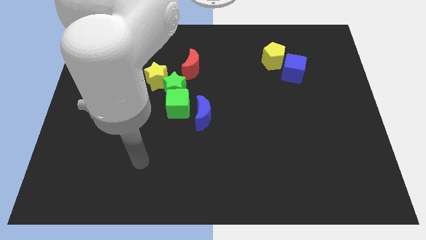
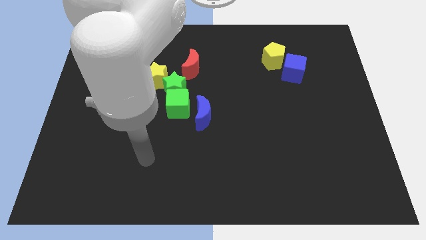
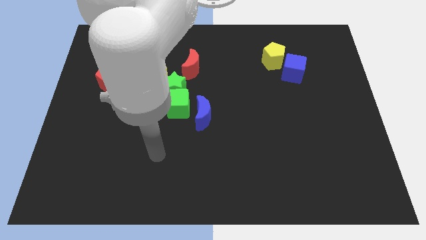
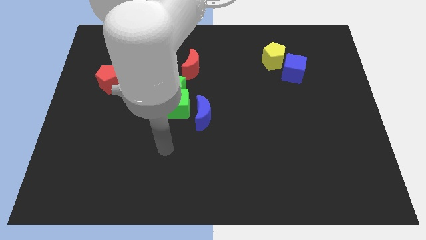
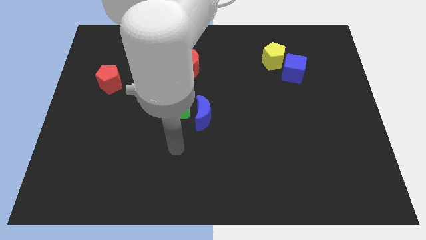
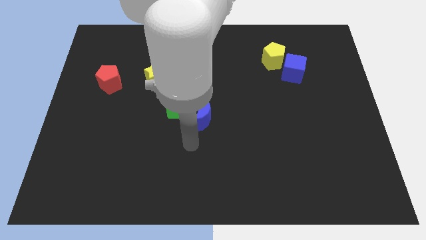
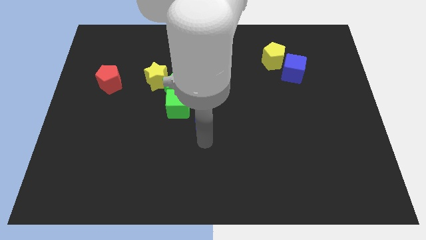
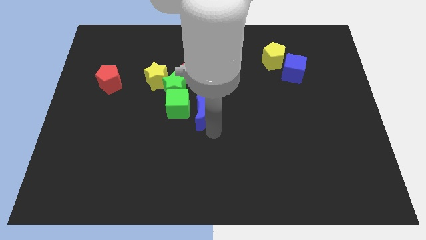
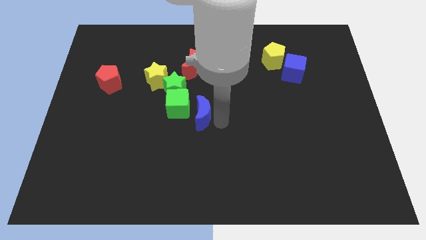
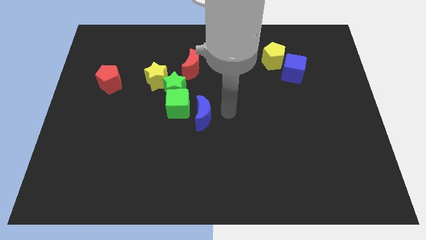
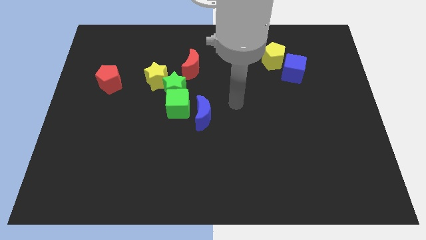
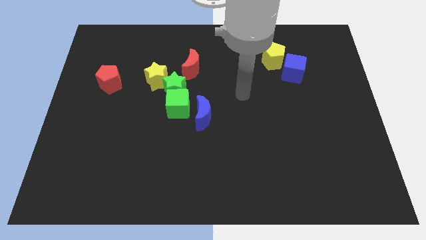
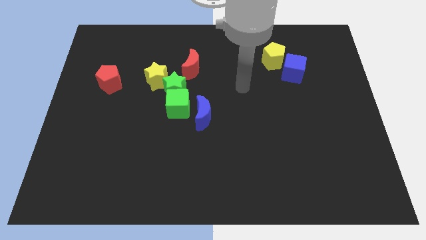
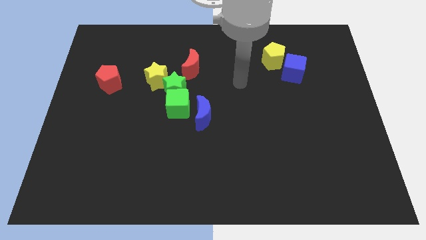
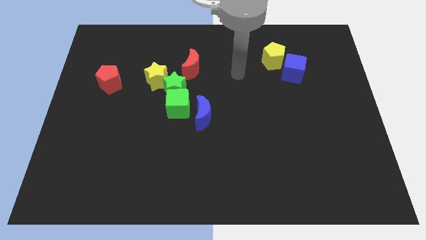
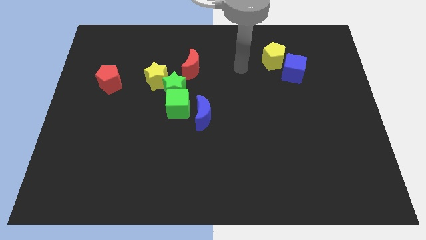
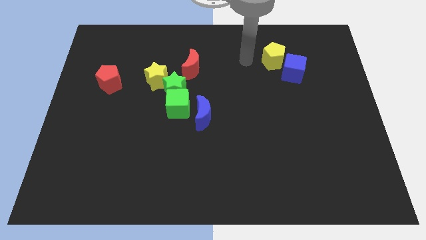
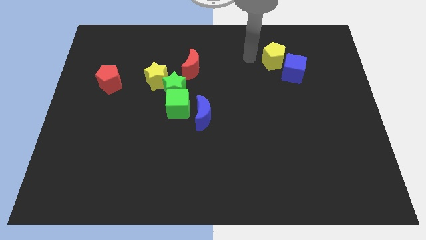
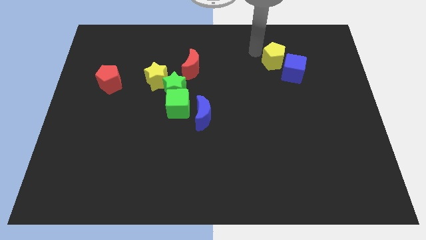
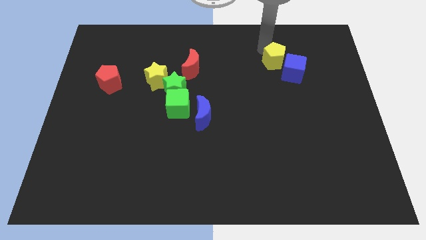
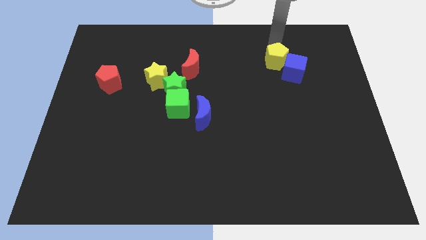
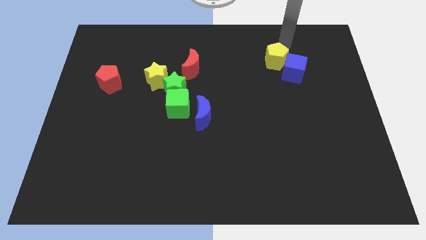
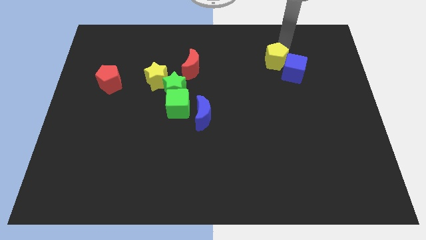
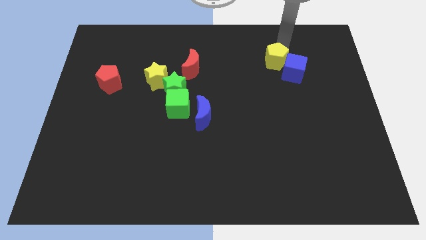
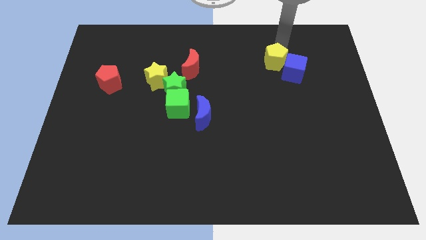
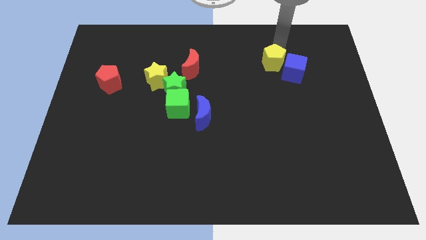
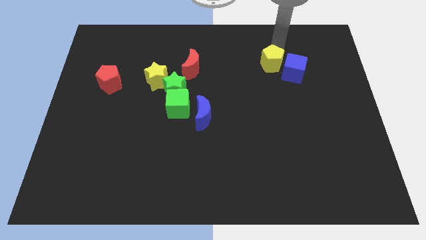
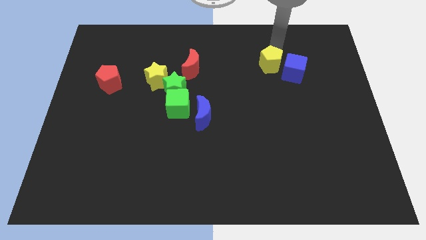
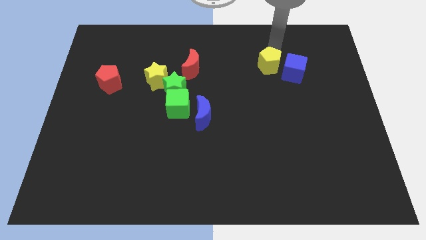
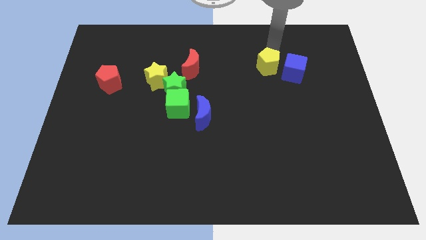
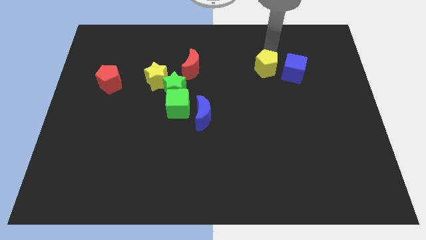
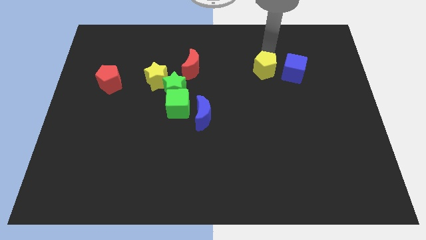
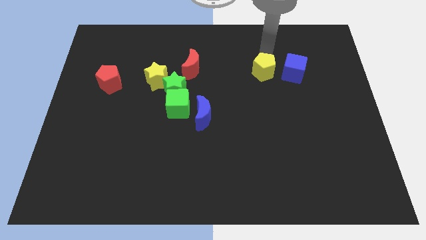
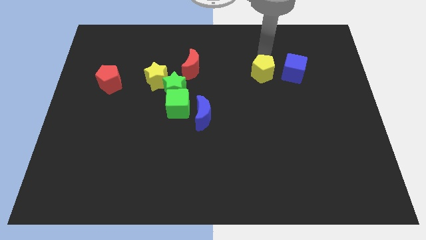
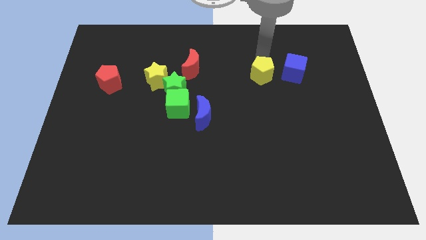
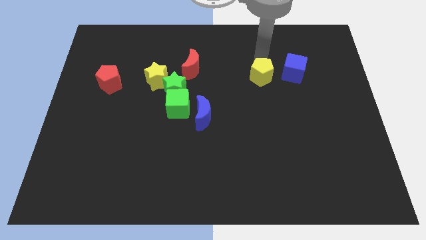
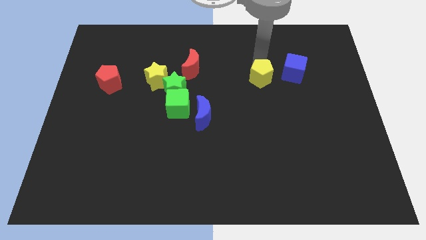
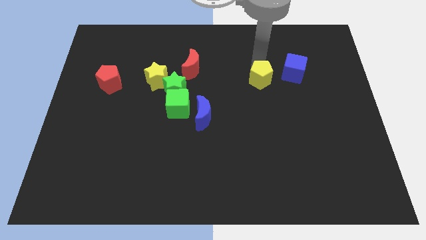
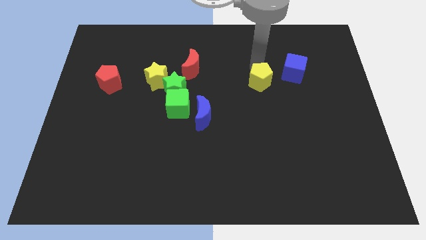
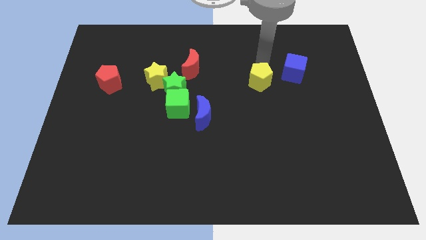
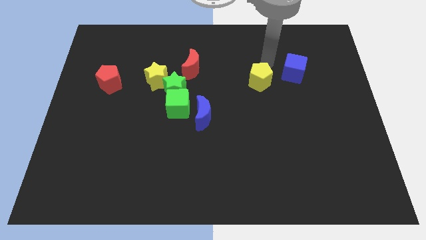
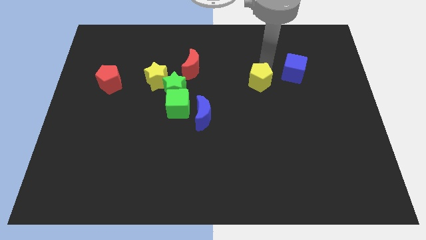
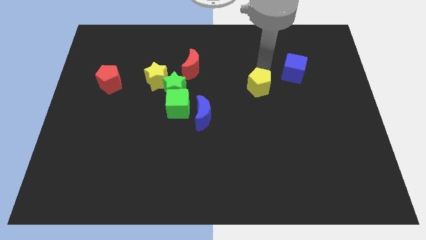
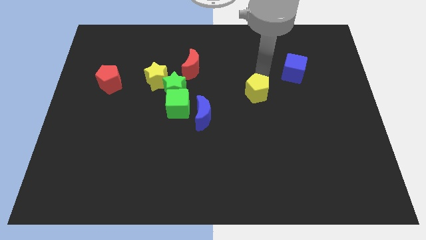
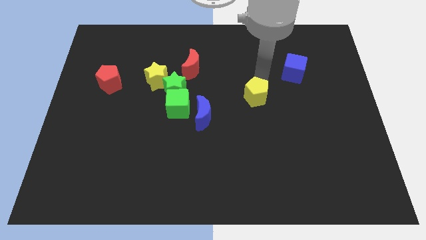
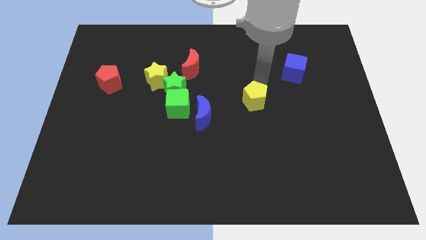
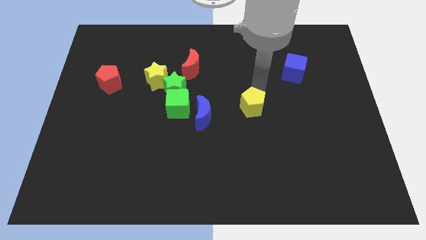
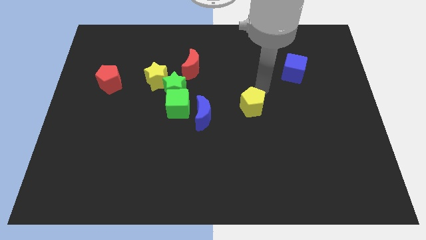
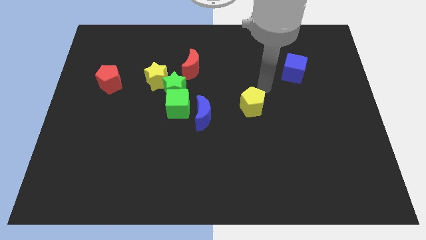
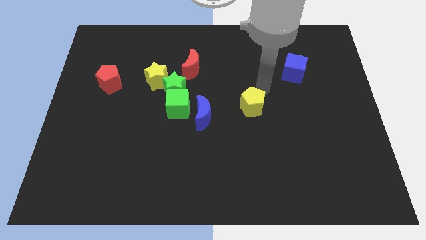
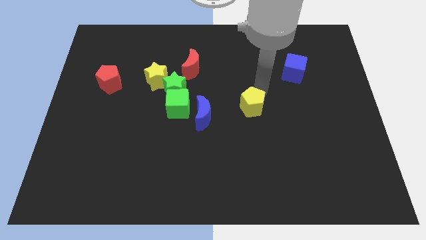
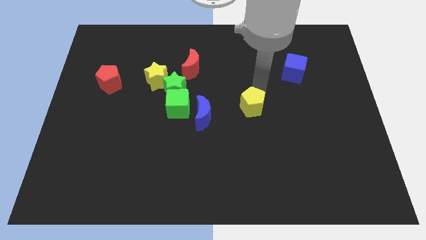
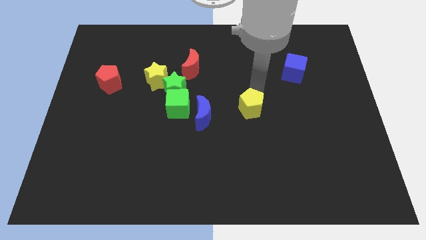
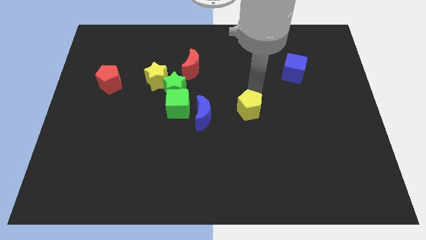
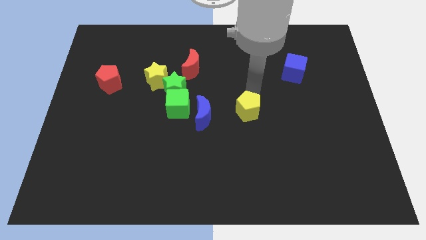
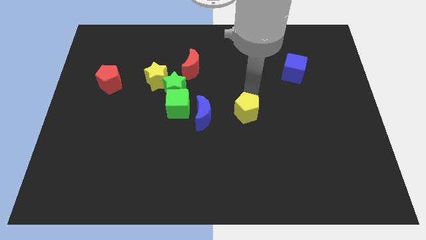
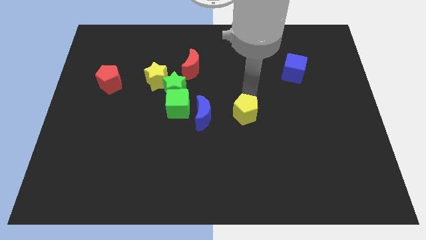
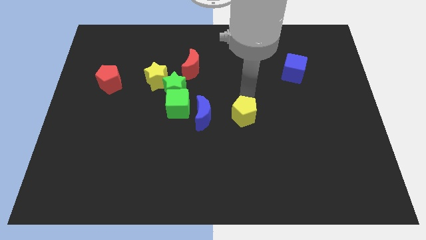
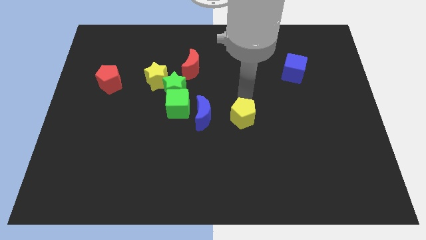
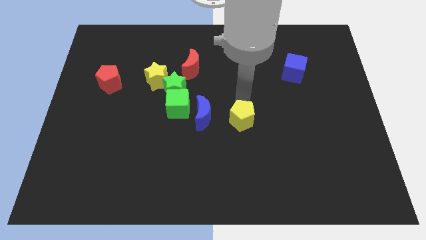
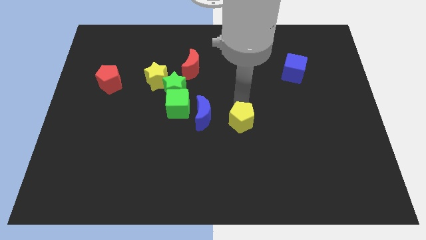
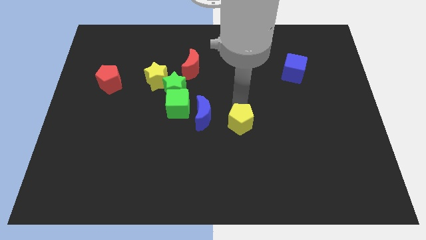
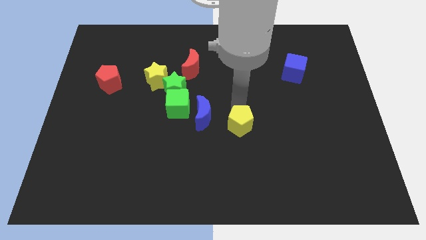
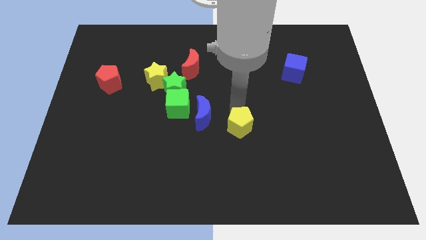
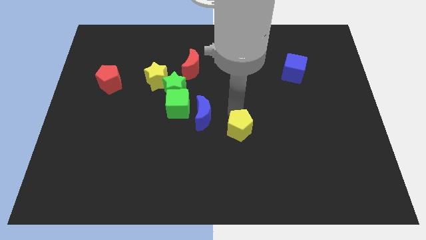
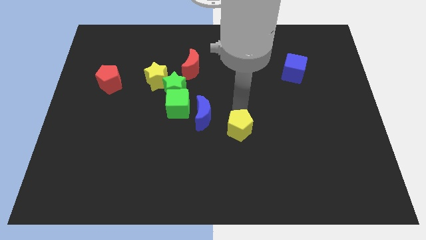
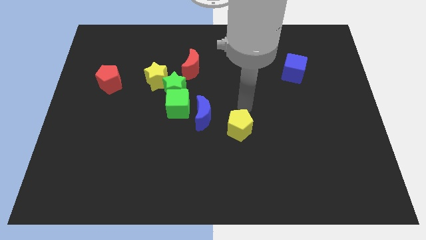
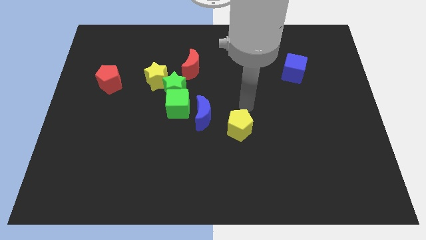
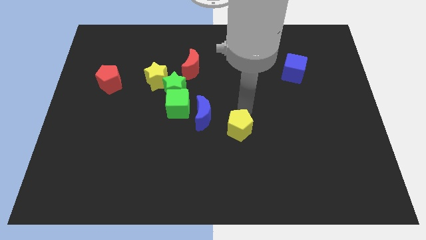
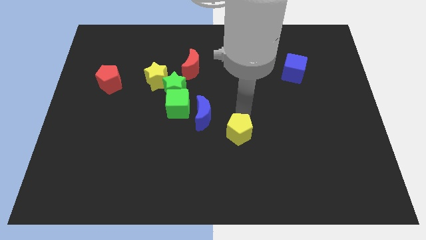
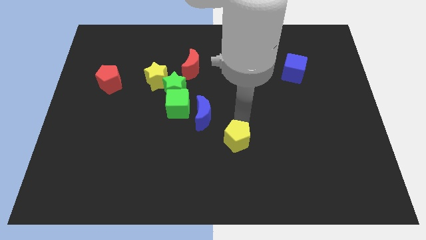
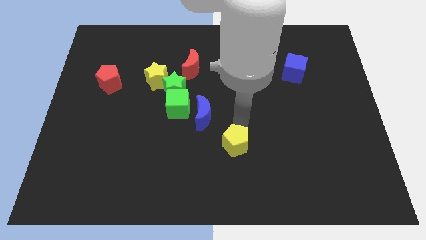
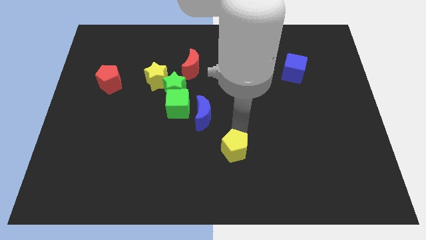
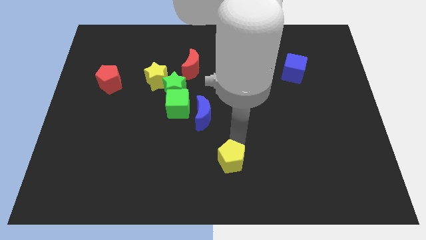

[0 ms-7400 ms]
slide the yellow pentagon to the bottom
